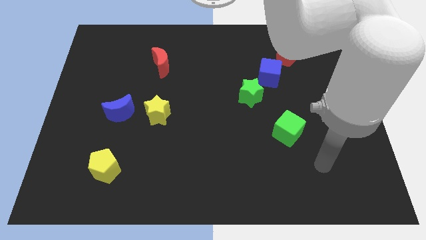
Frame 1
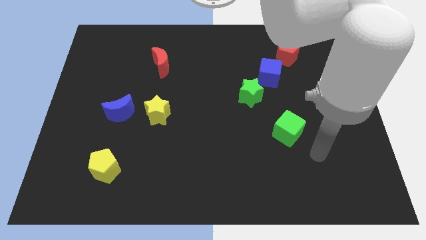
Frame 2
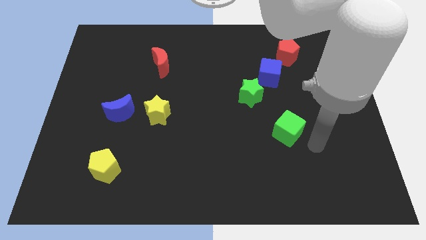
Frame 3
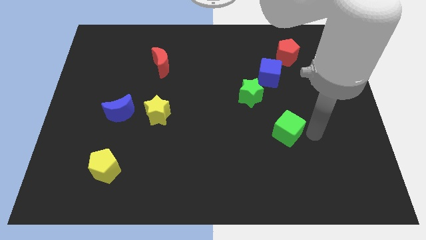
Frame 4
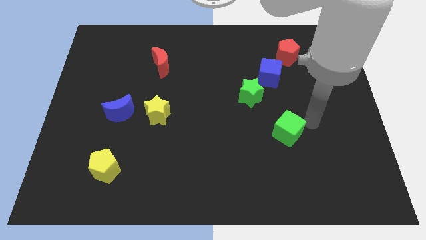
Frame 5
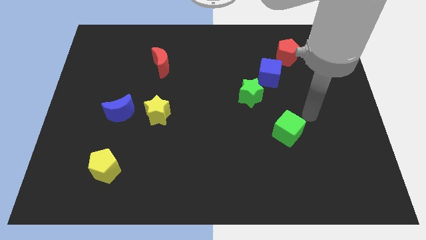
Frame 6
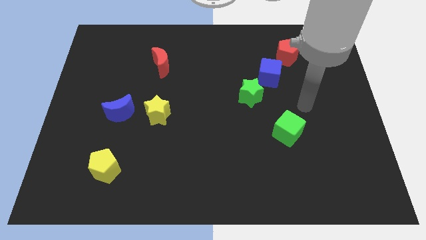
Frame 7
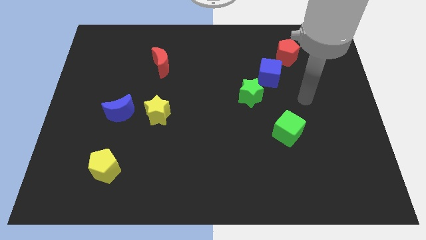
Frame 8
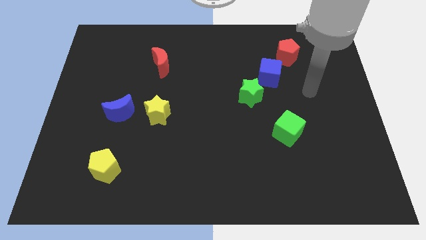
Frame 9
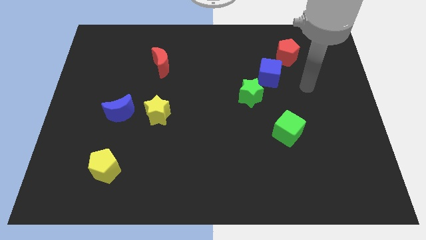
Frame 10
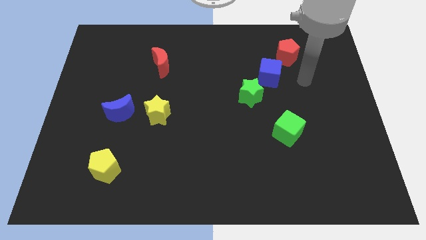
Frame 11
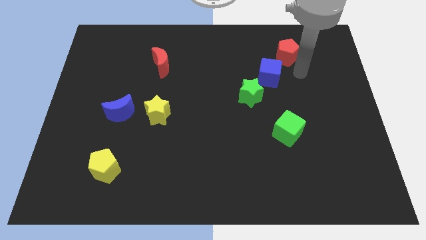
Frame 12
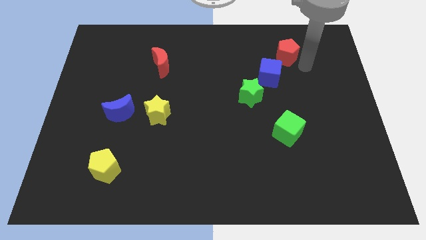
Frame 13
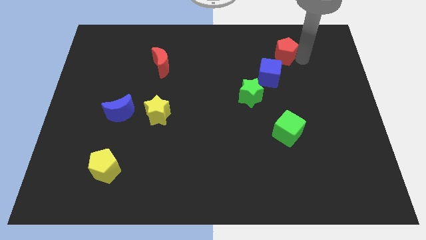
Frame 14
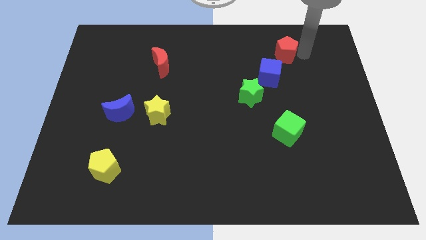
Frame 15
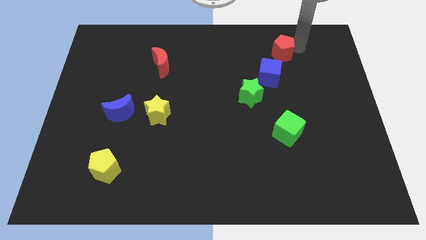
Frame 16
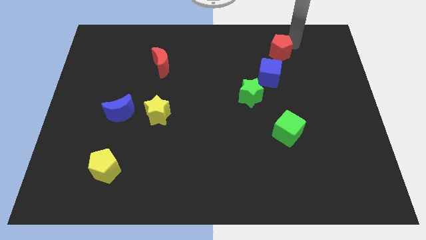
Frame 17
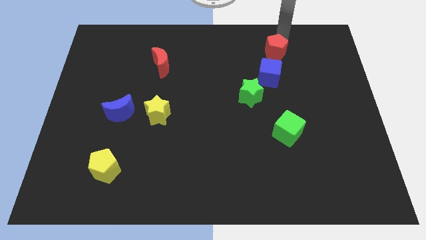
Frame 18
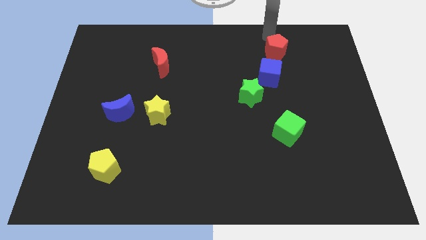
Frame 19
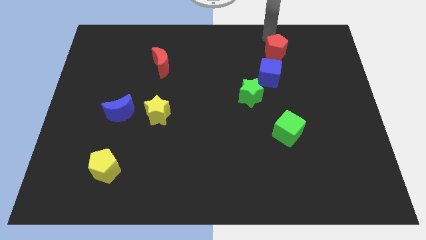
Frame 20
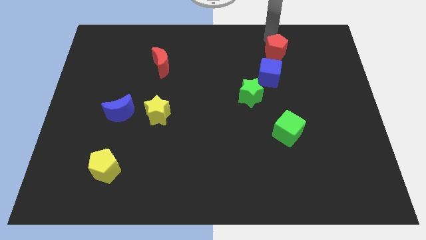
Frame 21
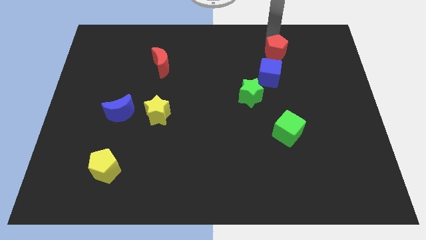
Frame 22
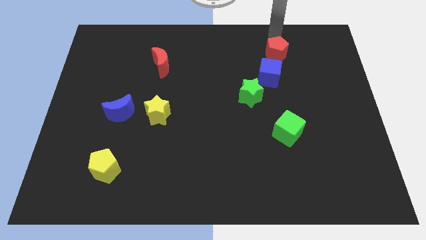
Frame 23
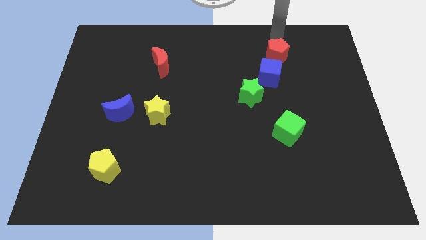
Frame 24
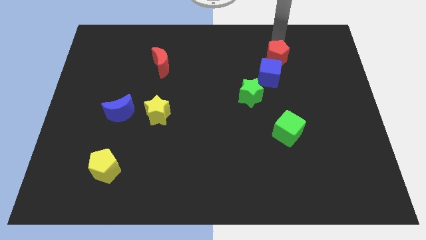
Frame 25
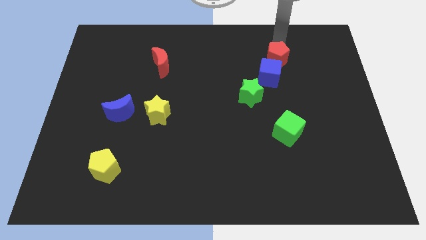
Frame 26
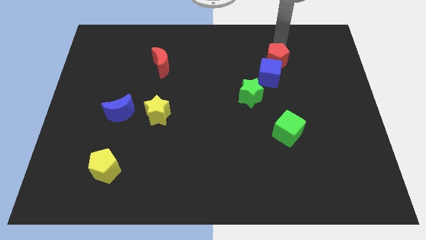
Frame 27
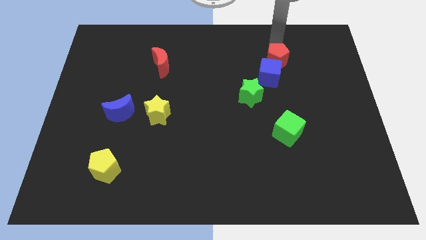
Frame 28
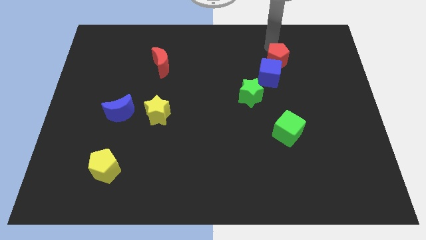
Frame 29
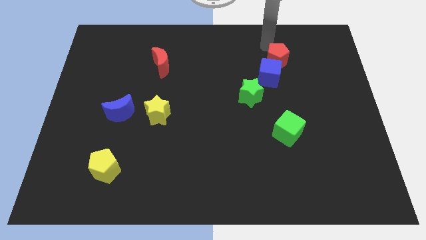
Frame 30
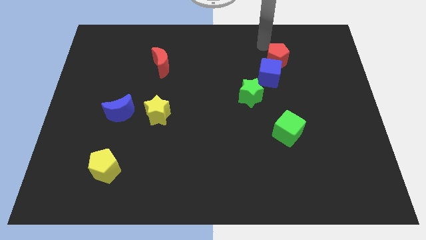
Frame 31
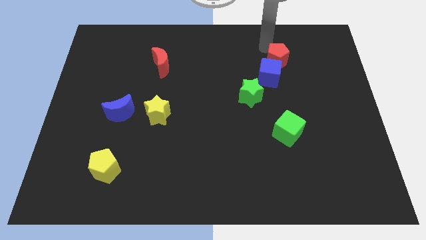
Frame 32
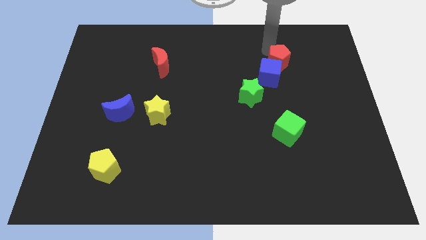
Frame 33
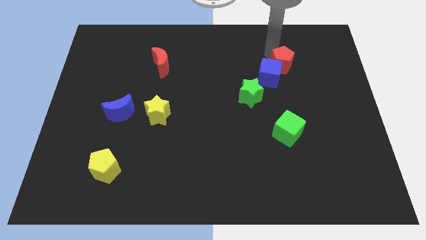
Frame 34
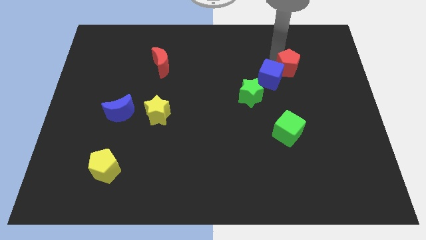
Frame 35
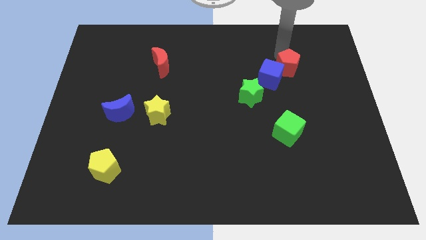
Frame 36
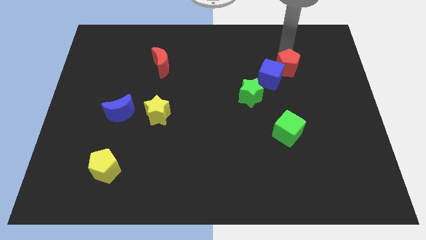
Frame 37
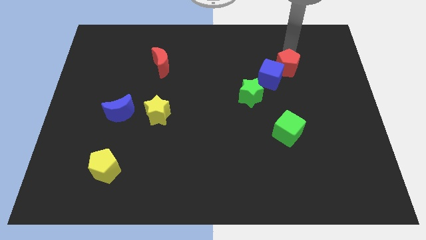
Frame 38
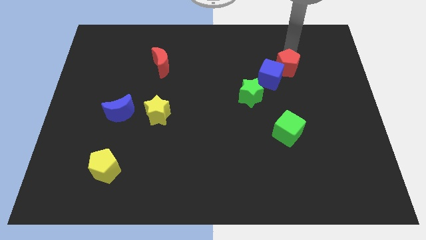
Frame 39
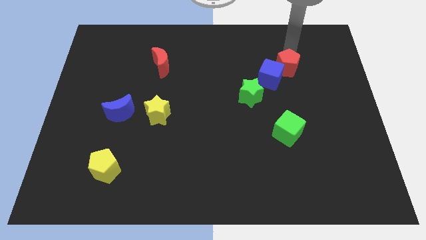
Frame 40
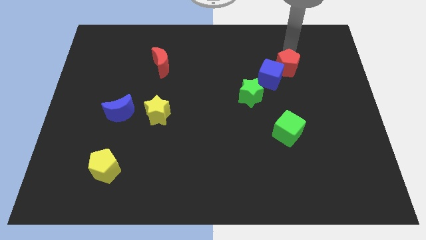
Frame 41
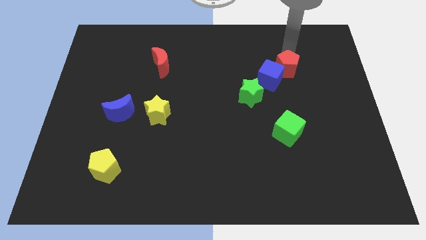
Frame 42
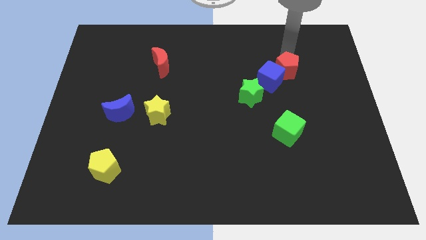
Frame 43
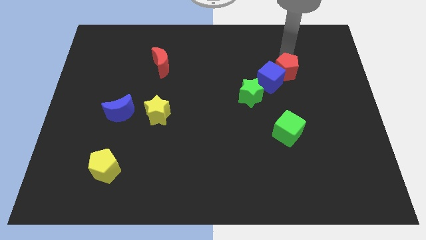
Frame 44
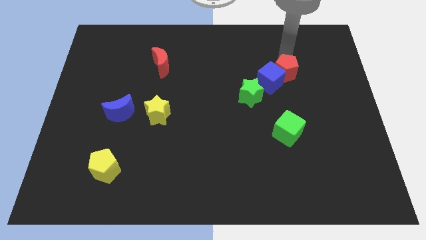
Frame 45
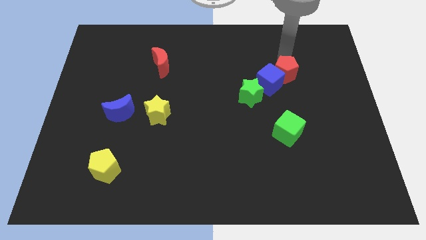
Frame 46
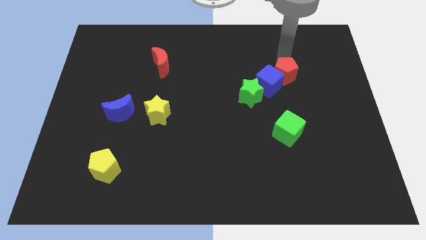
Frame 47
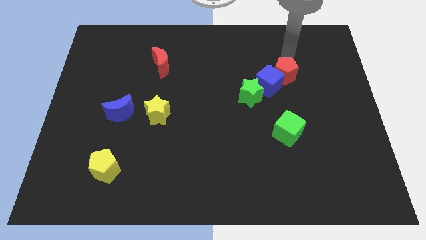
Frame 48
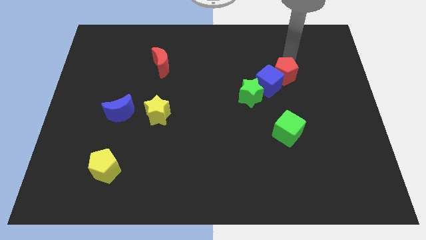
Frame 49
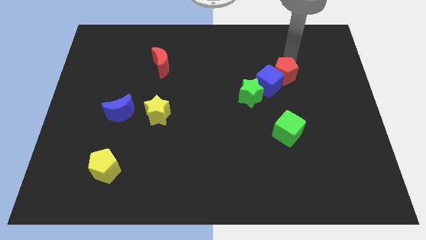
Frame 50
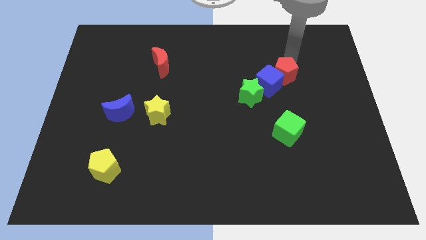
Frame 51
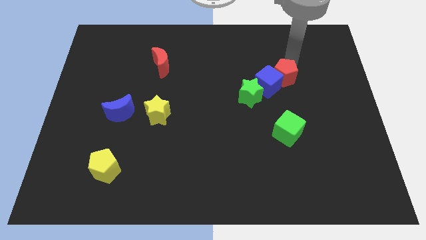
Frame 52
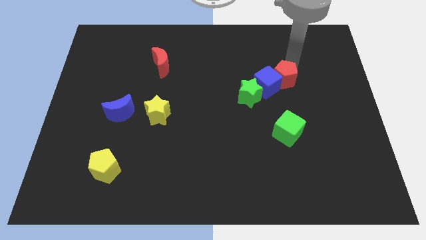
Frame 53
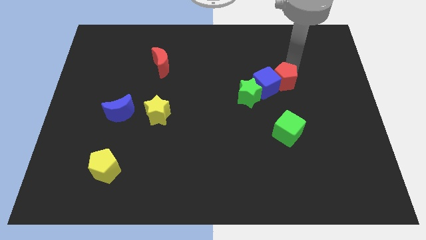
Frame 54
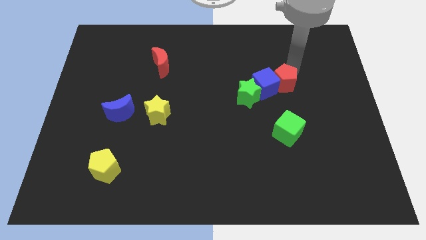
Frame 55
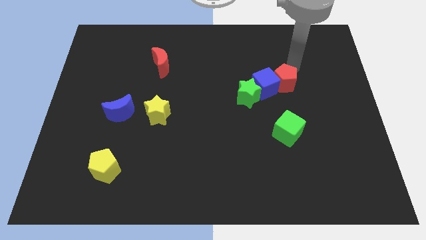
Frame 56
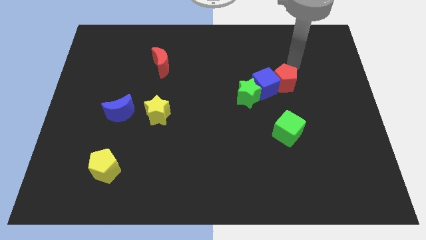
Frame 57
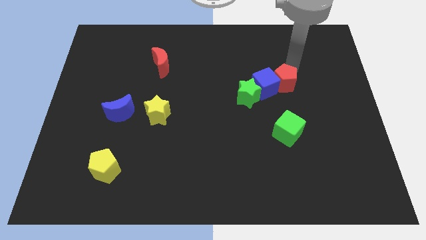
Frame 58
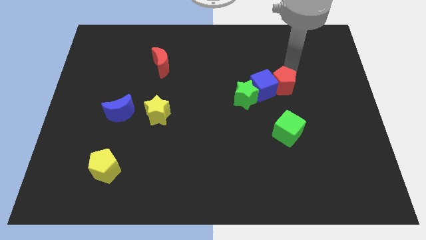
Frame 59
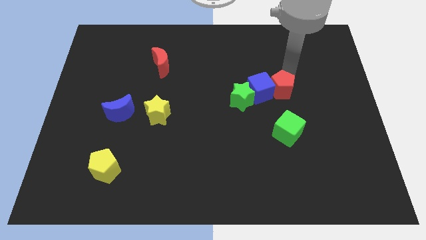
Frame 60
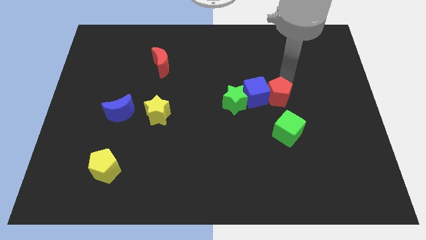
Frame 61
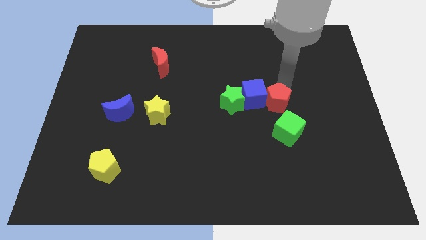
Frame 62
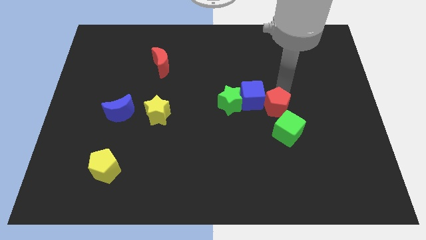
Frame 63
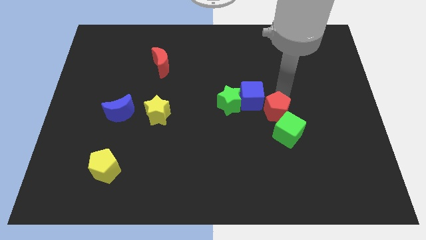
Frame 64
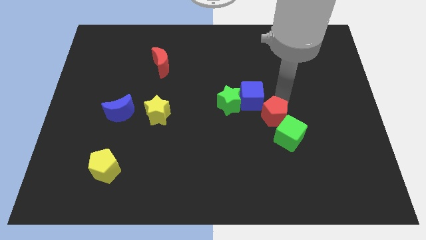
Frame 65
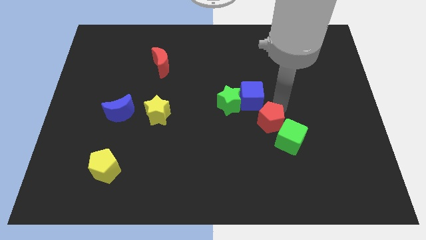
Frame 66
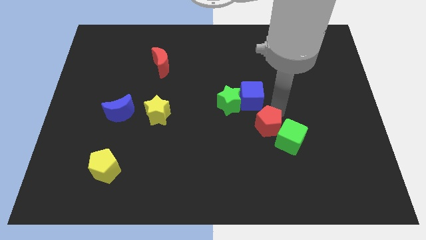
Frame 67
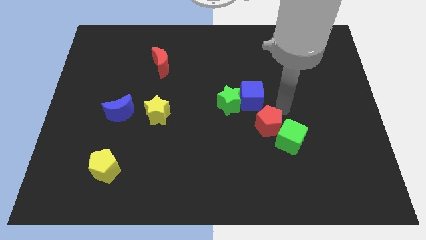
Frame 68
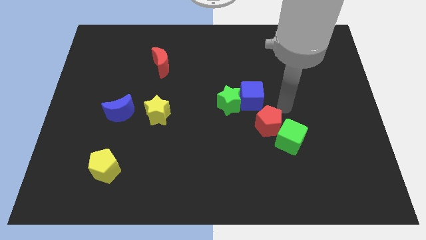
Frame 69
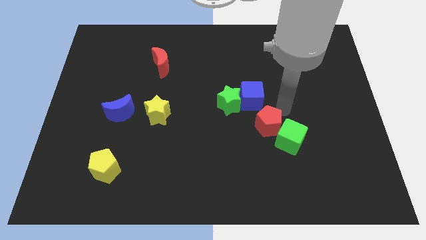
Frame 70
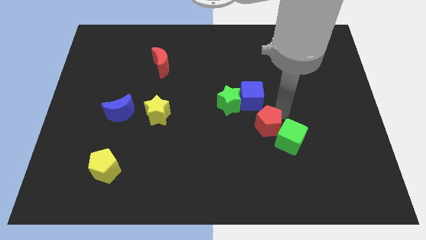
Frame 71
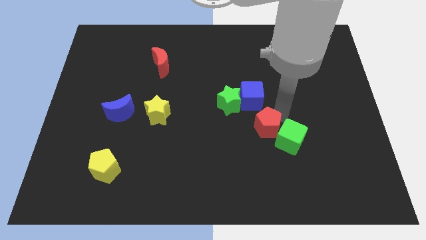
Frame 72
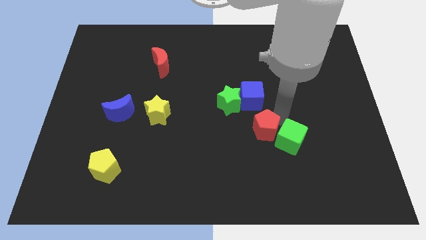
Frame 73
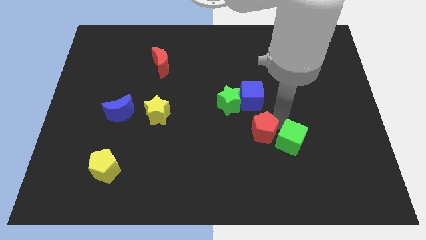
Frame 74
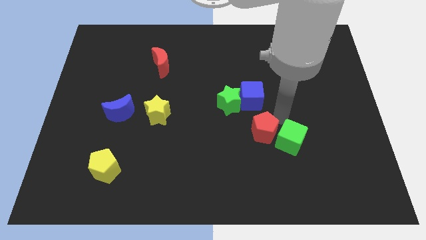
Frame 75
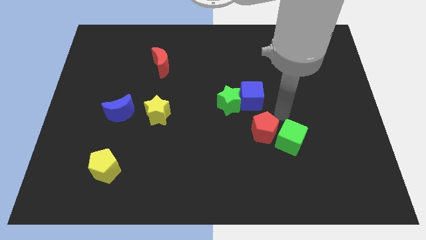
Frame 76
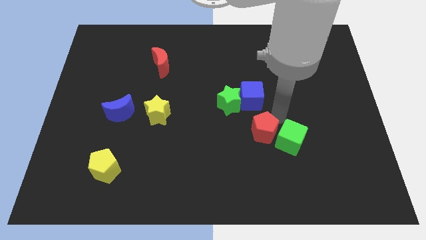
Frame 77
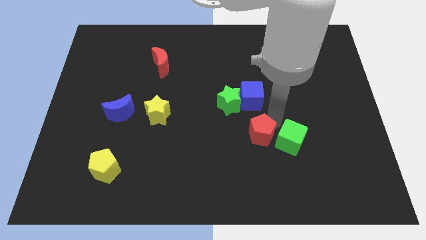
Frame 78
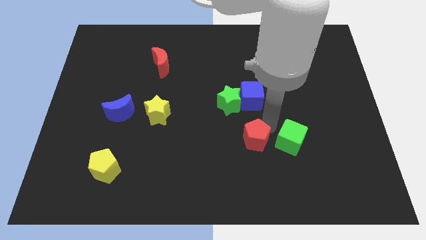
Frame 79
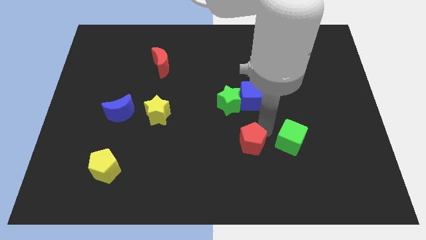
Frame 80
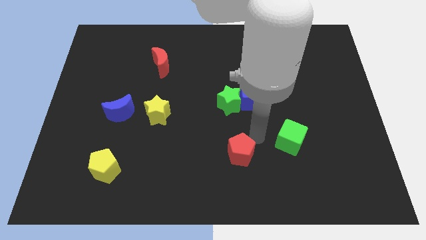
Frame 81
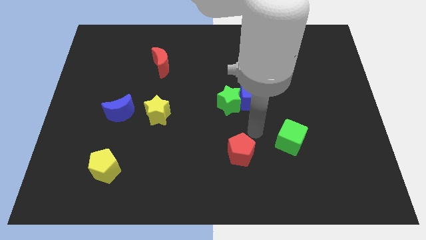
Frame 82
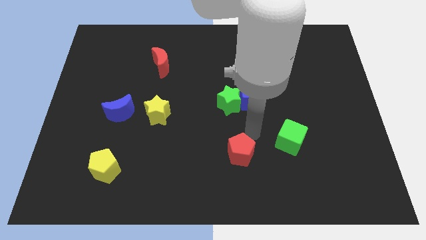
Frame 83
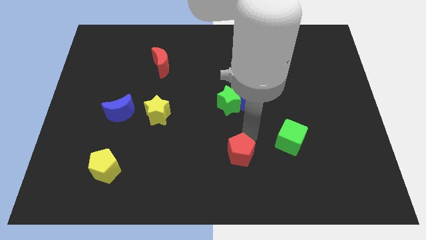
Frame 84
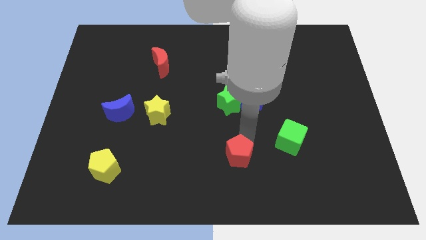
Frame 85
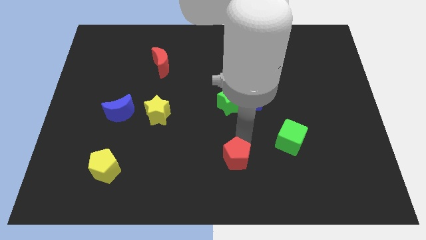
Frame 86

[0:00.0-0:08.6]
put the red pentagon to the bottom
